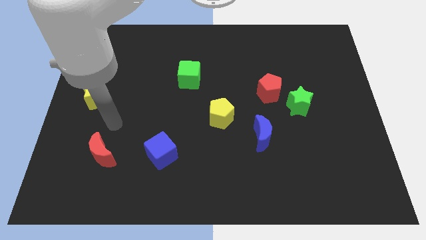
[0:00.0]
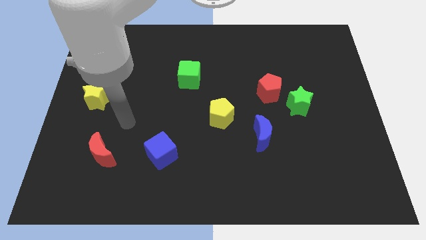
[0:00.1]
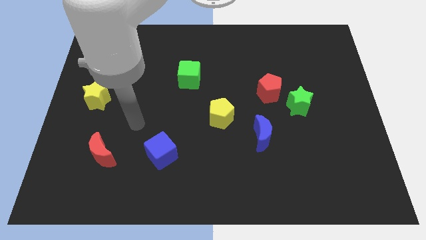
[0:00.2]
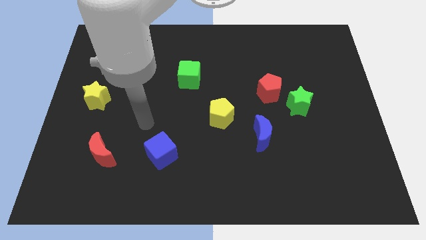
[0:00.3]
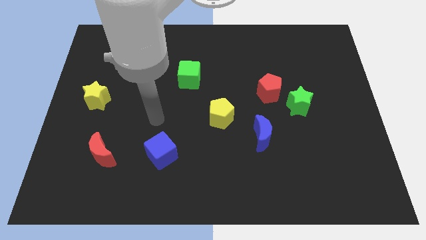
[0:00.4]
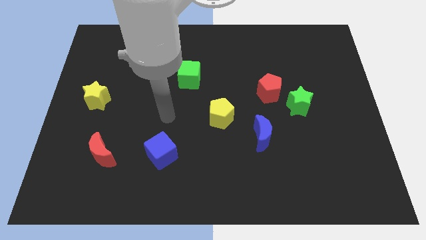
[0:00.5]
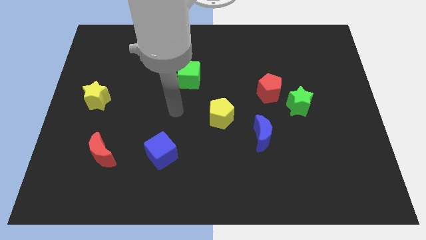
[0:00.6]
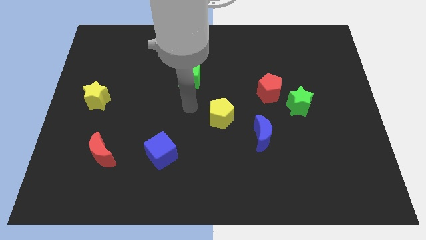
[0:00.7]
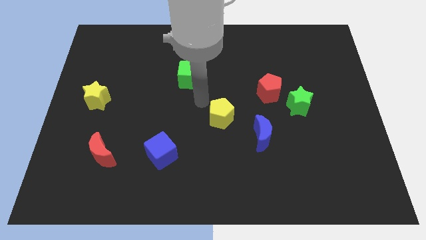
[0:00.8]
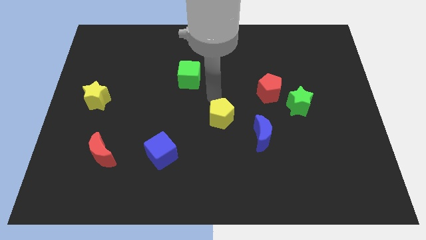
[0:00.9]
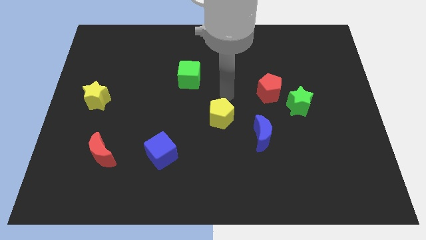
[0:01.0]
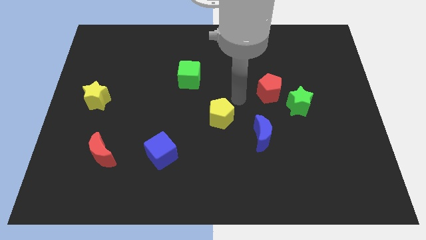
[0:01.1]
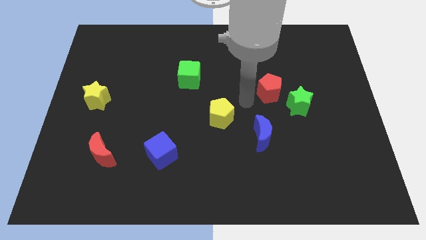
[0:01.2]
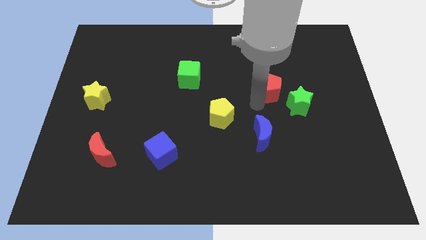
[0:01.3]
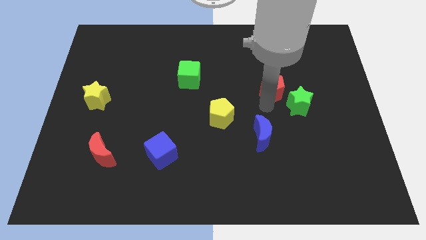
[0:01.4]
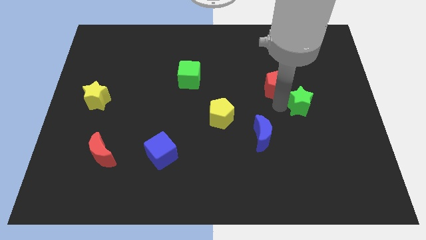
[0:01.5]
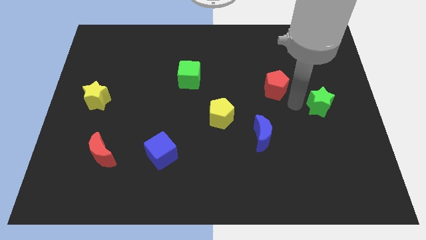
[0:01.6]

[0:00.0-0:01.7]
separate the red pentagon from the green star

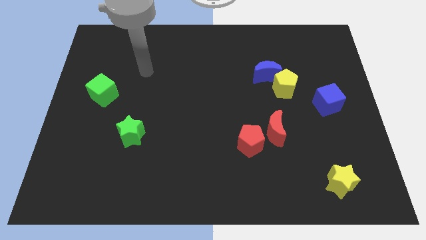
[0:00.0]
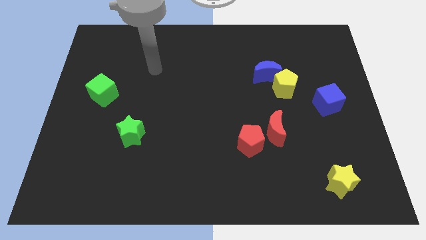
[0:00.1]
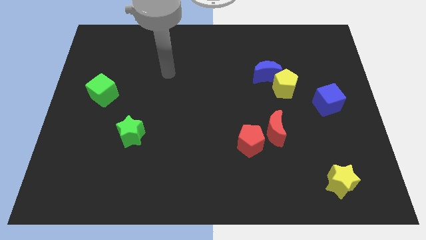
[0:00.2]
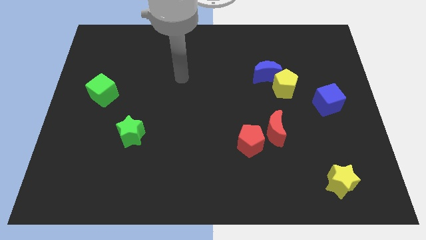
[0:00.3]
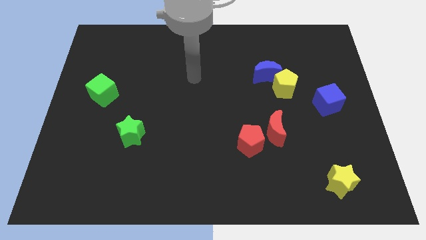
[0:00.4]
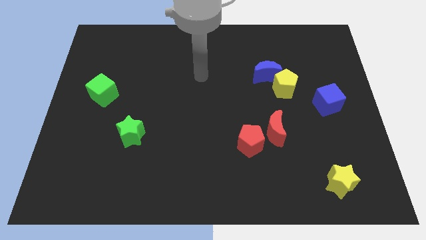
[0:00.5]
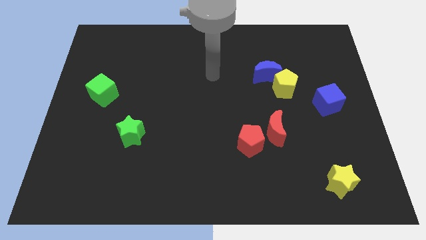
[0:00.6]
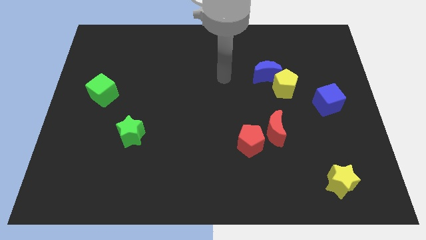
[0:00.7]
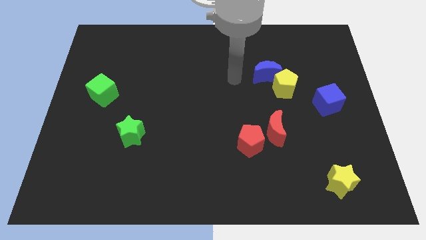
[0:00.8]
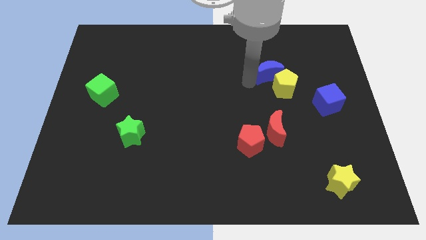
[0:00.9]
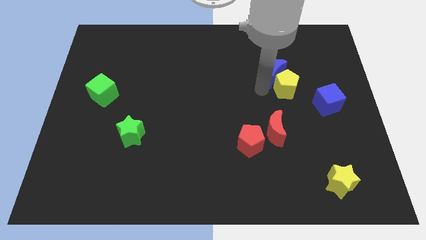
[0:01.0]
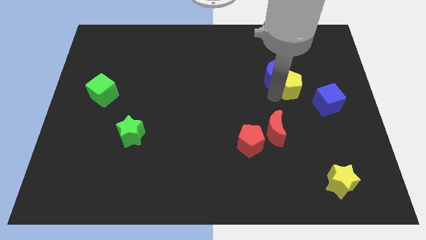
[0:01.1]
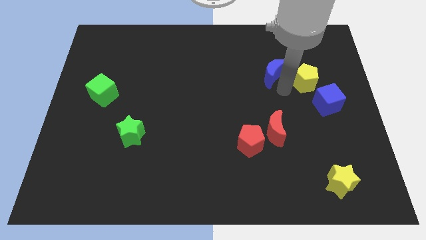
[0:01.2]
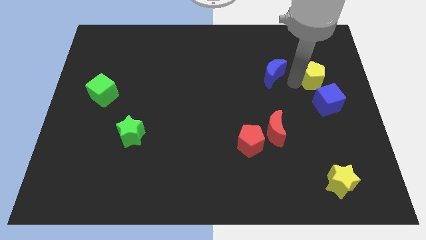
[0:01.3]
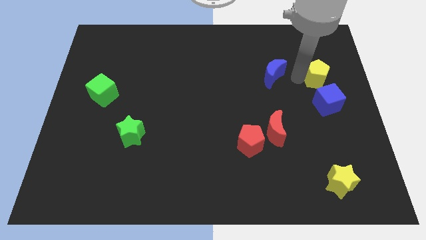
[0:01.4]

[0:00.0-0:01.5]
separate the blue moon from the yellow pentagon

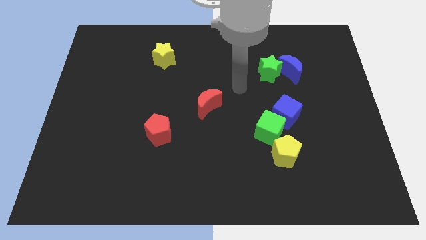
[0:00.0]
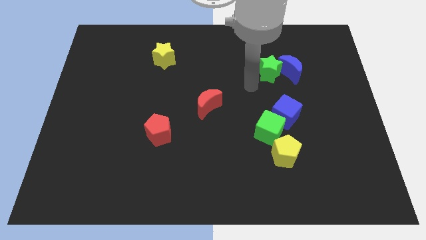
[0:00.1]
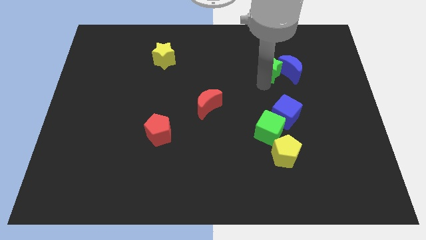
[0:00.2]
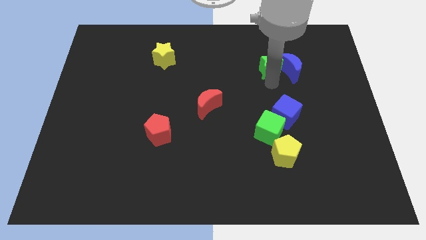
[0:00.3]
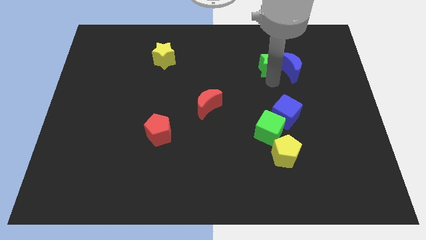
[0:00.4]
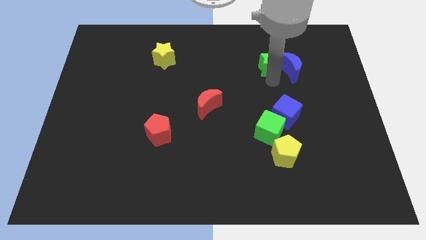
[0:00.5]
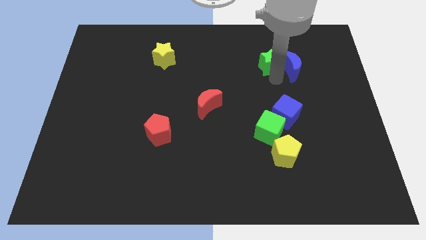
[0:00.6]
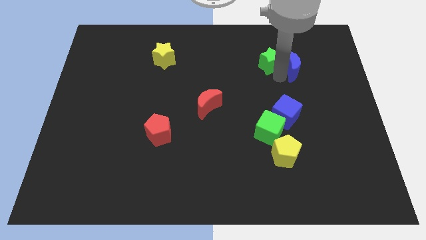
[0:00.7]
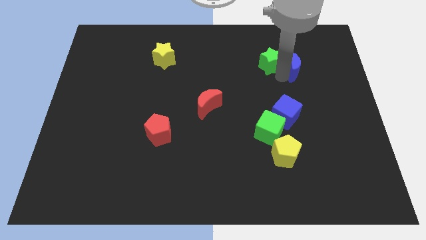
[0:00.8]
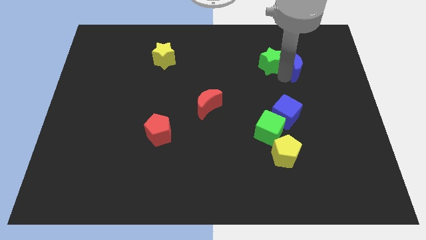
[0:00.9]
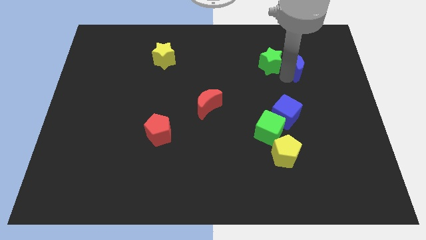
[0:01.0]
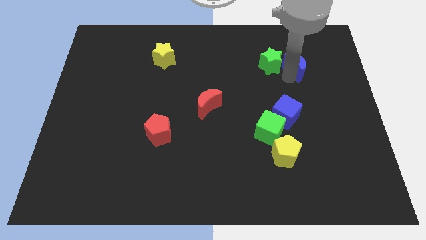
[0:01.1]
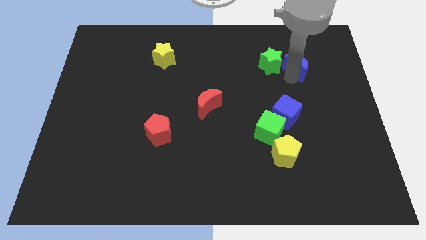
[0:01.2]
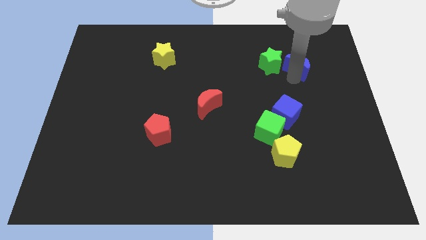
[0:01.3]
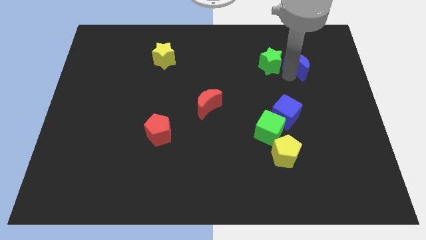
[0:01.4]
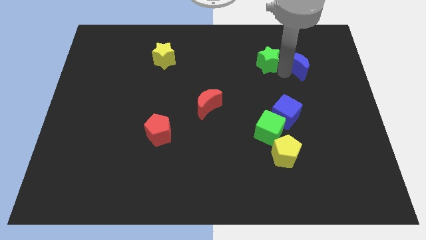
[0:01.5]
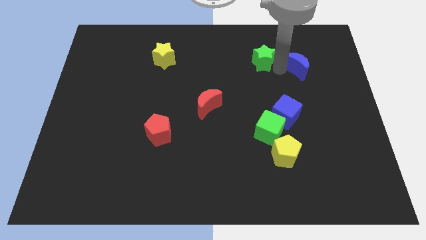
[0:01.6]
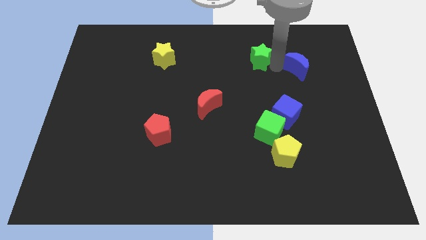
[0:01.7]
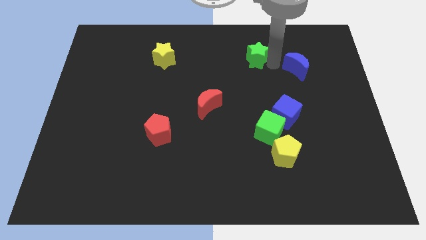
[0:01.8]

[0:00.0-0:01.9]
pull the blue moon apart from the green star

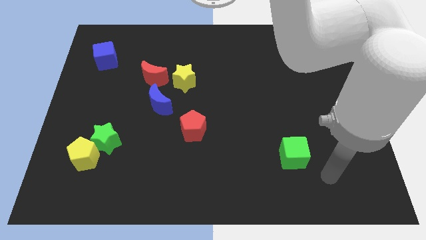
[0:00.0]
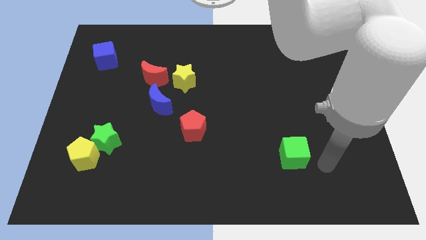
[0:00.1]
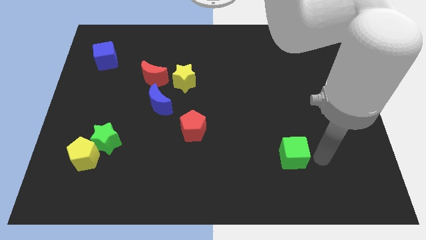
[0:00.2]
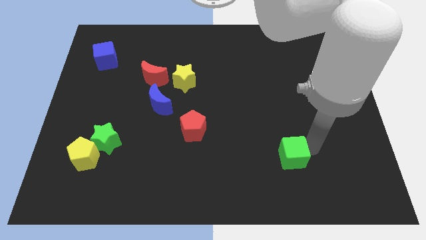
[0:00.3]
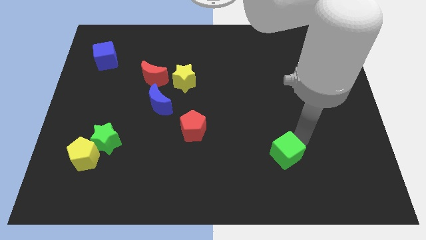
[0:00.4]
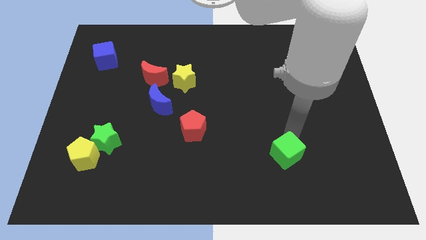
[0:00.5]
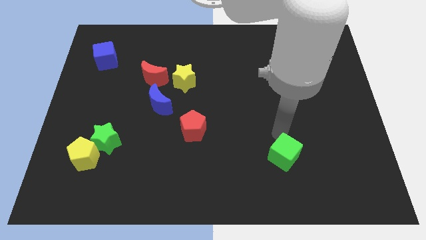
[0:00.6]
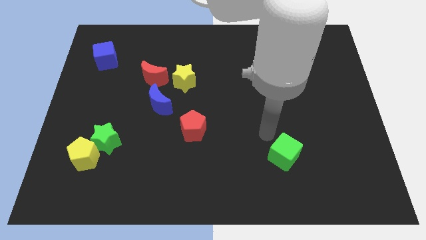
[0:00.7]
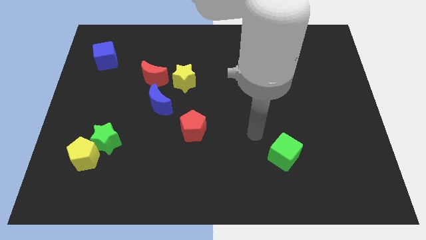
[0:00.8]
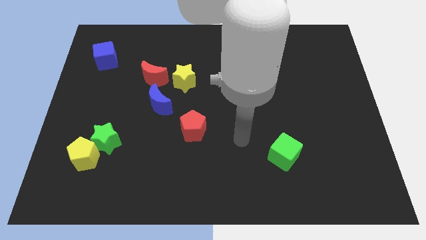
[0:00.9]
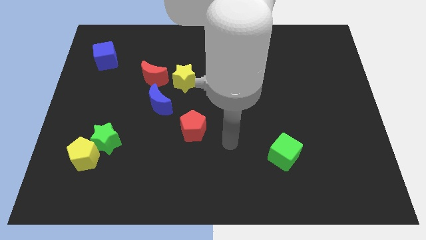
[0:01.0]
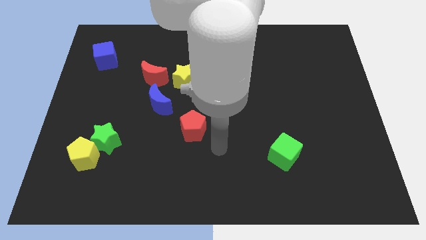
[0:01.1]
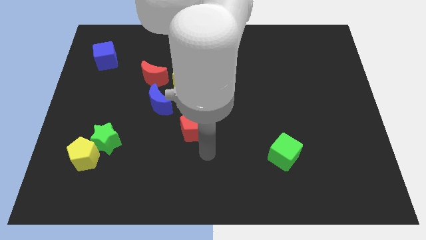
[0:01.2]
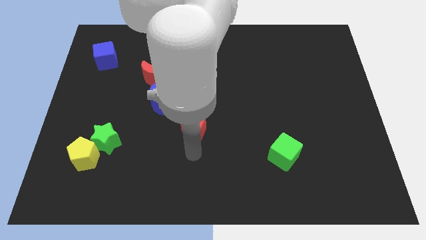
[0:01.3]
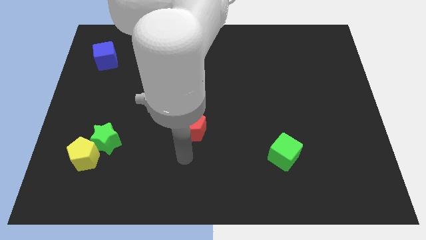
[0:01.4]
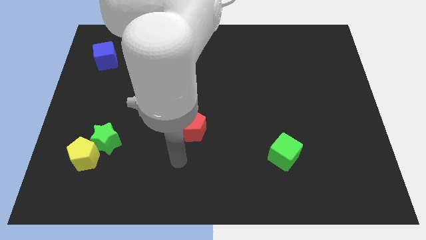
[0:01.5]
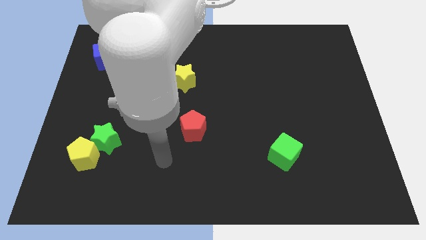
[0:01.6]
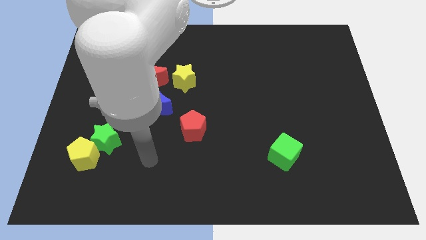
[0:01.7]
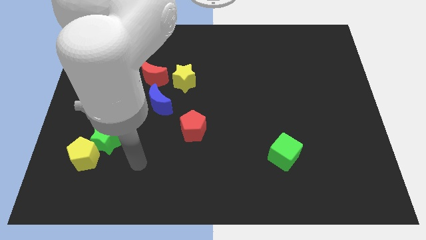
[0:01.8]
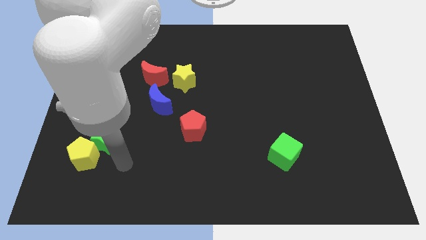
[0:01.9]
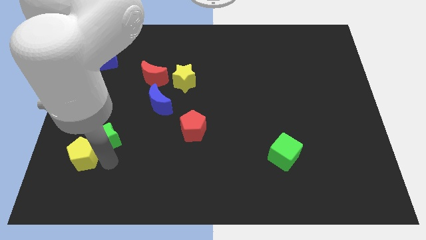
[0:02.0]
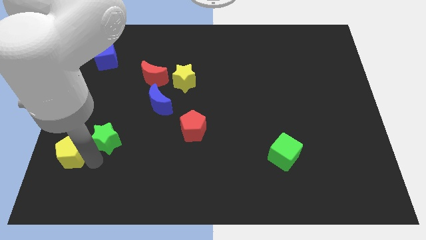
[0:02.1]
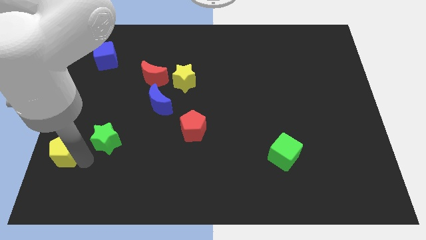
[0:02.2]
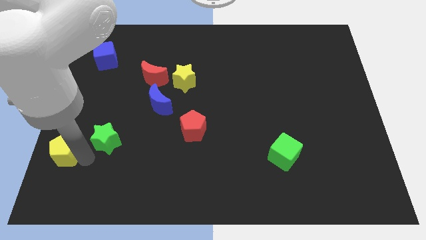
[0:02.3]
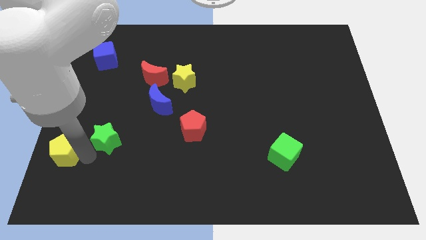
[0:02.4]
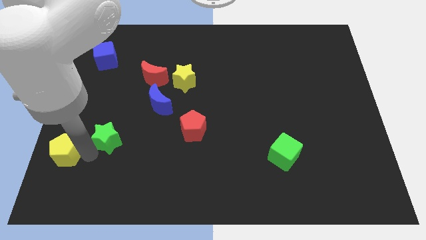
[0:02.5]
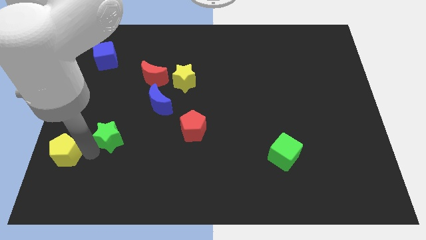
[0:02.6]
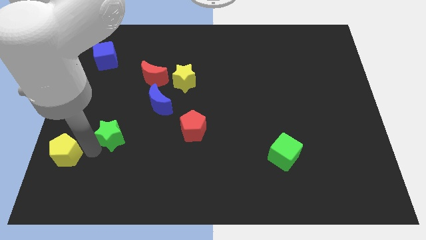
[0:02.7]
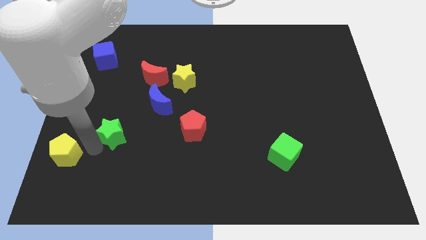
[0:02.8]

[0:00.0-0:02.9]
separate the green star from the yellow pentagon

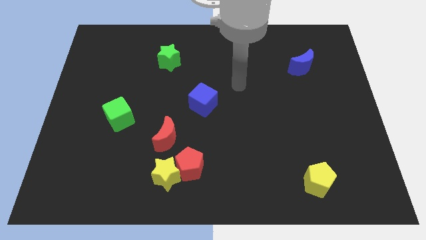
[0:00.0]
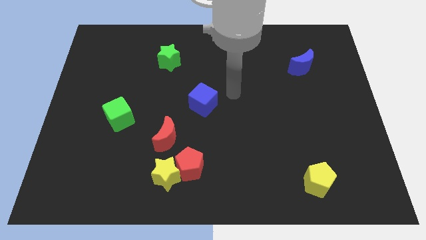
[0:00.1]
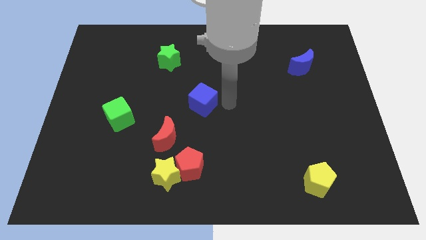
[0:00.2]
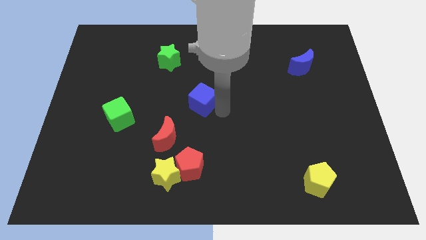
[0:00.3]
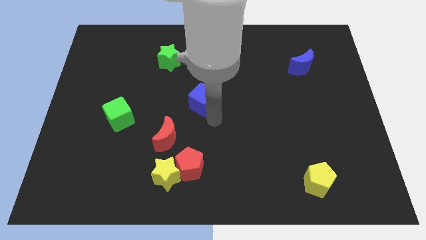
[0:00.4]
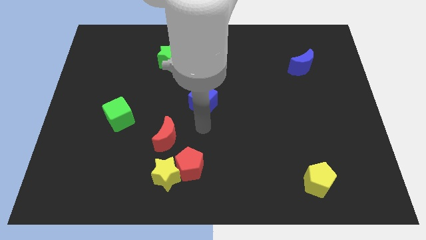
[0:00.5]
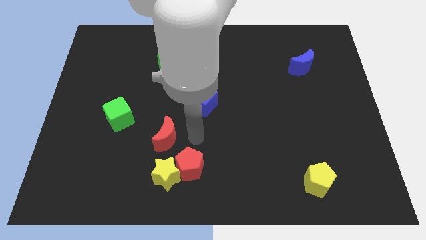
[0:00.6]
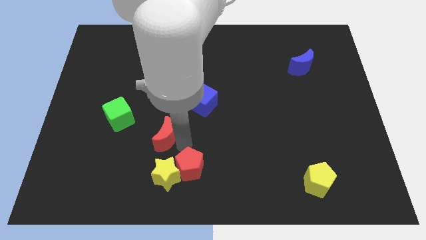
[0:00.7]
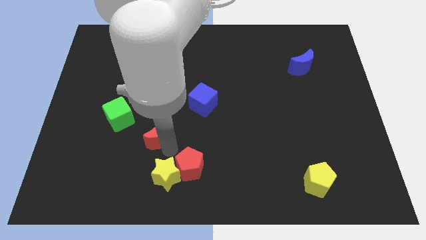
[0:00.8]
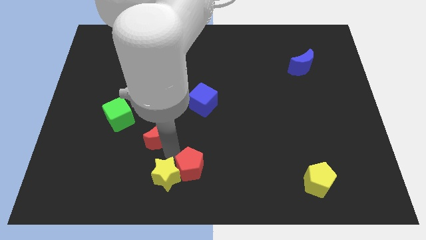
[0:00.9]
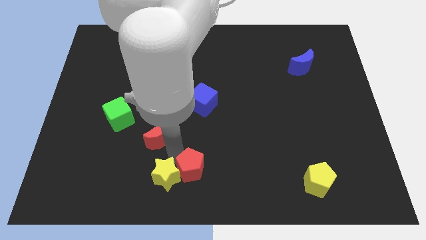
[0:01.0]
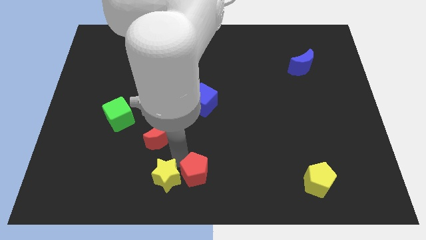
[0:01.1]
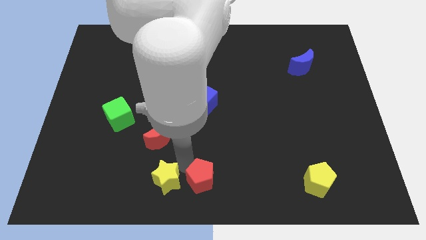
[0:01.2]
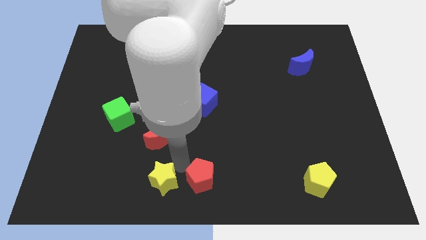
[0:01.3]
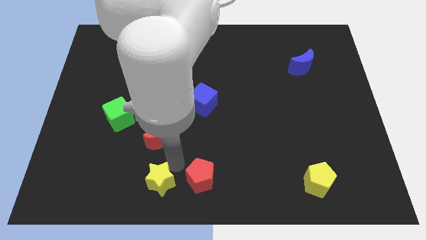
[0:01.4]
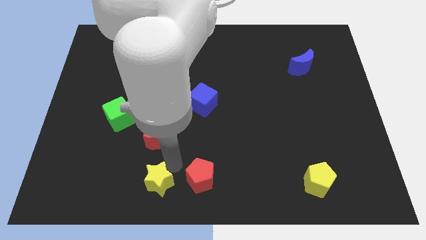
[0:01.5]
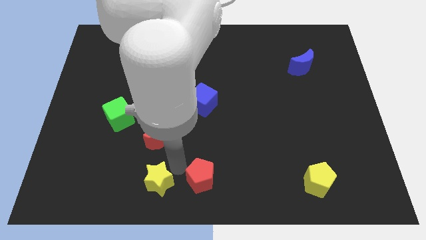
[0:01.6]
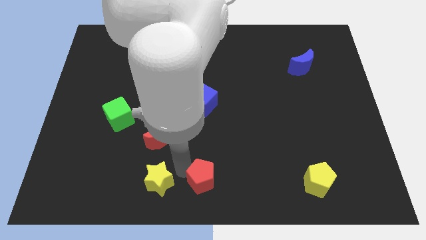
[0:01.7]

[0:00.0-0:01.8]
separate the red pentagon from the yellow star and red moon
